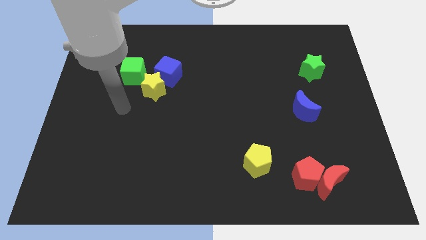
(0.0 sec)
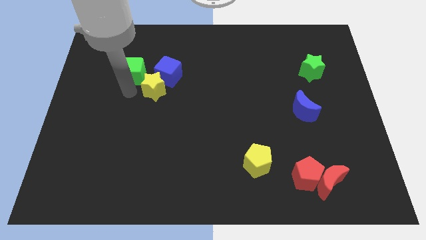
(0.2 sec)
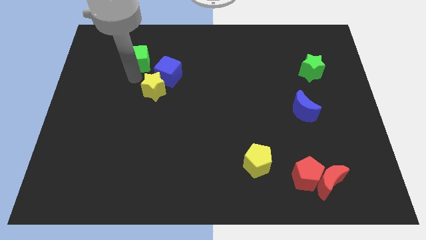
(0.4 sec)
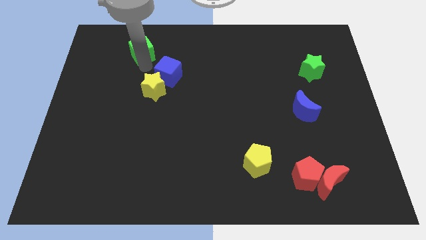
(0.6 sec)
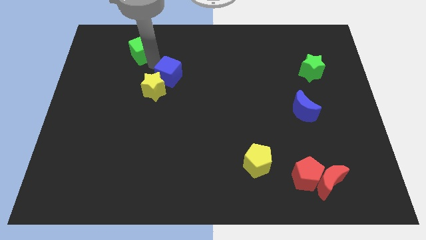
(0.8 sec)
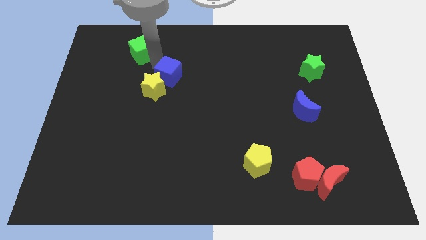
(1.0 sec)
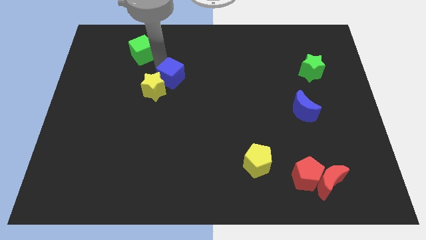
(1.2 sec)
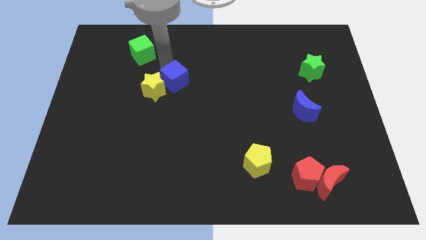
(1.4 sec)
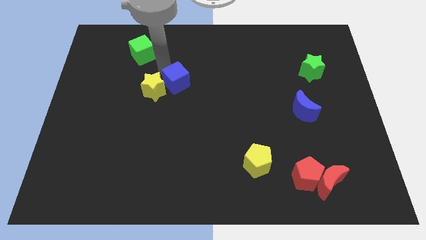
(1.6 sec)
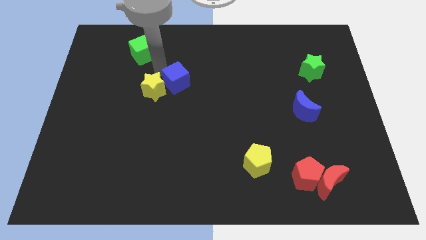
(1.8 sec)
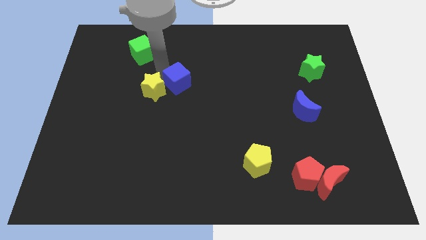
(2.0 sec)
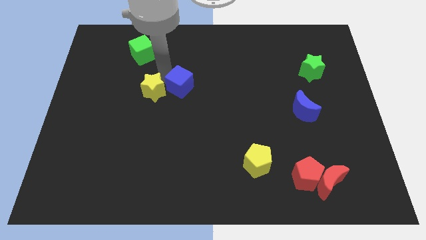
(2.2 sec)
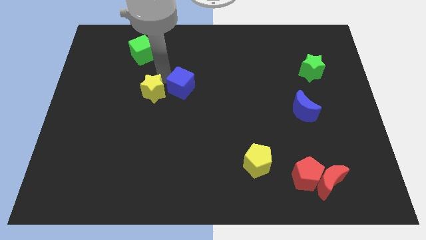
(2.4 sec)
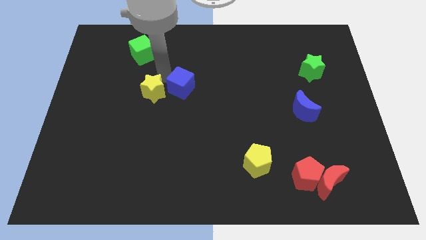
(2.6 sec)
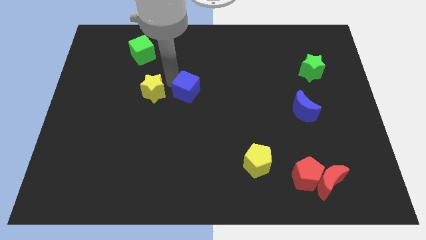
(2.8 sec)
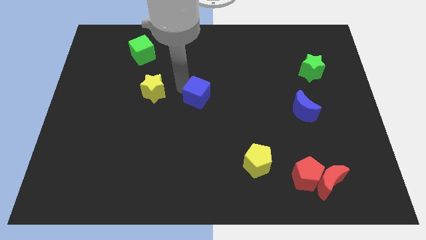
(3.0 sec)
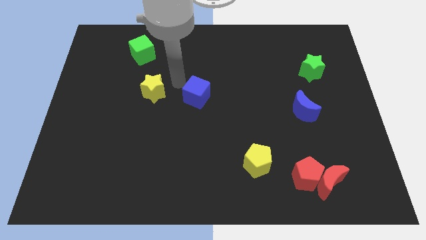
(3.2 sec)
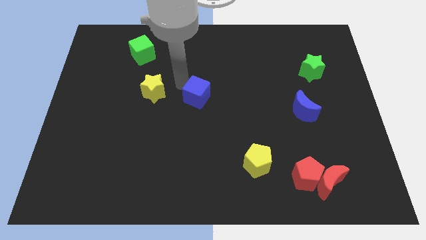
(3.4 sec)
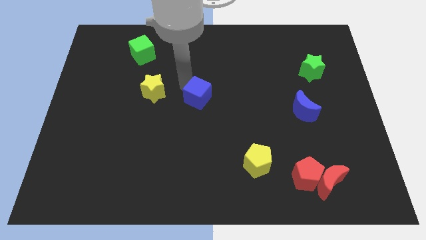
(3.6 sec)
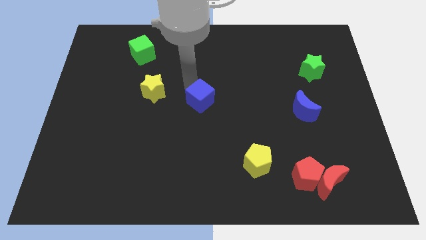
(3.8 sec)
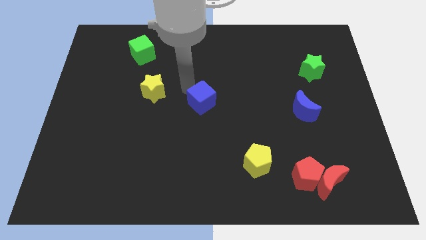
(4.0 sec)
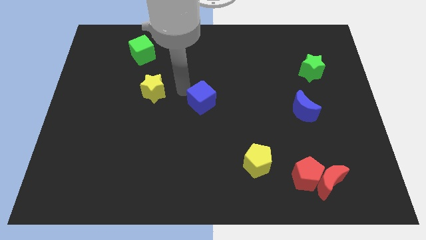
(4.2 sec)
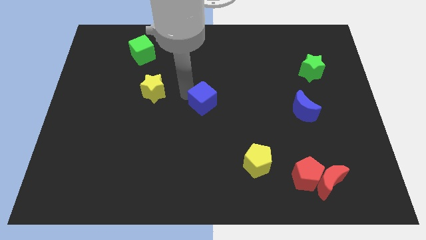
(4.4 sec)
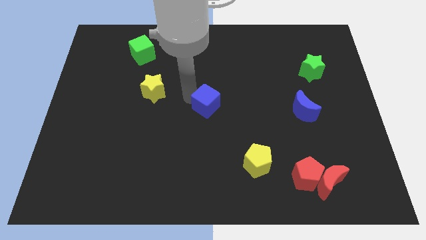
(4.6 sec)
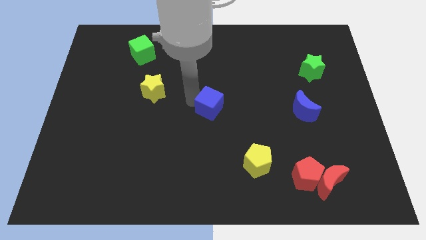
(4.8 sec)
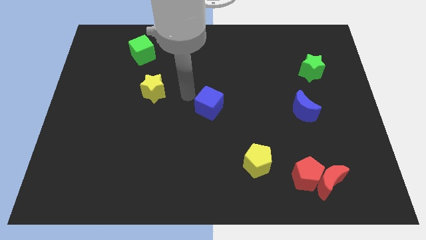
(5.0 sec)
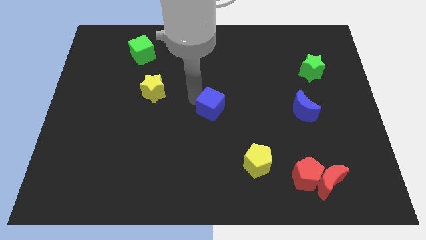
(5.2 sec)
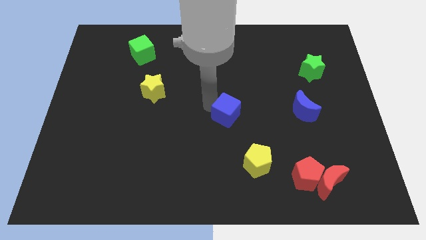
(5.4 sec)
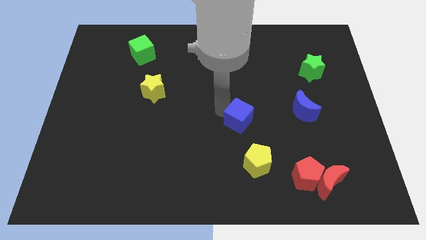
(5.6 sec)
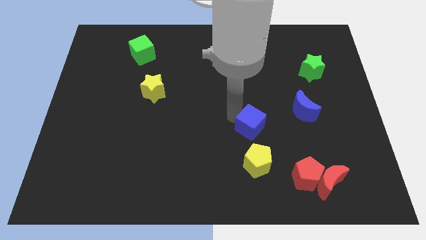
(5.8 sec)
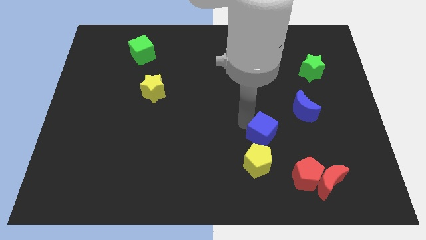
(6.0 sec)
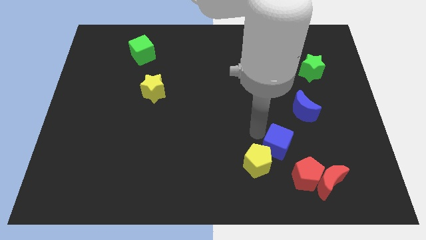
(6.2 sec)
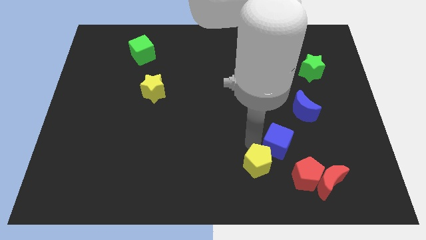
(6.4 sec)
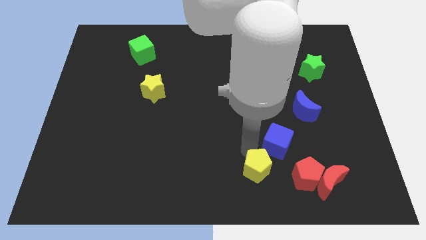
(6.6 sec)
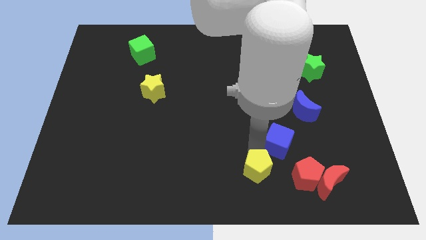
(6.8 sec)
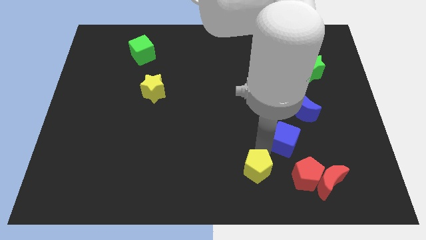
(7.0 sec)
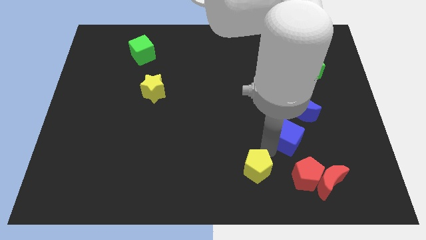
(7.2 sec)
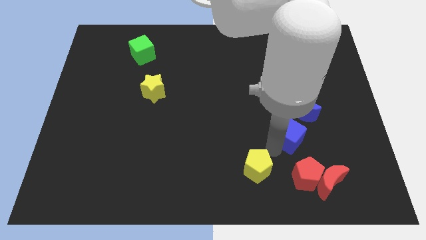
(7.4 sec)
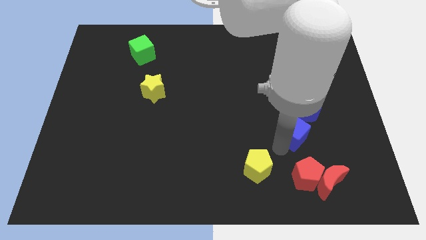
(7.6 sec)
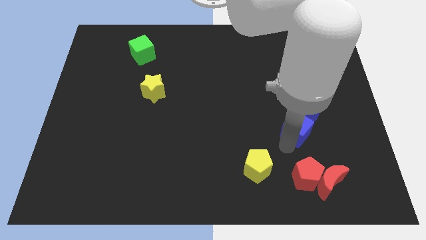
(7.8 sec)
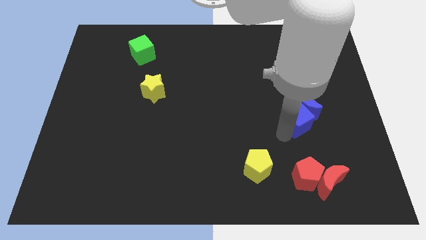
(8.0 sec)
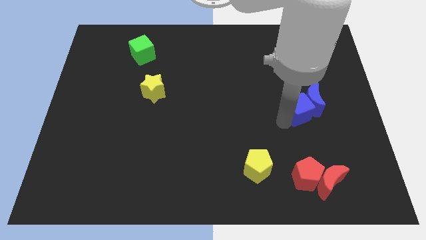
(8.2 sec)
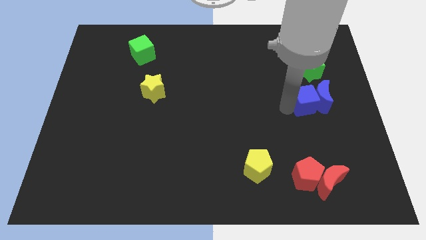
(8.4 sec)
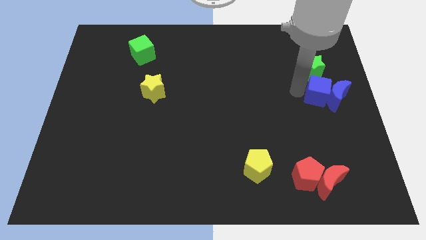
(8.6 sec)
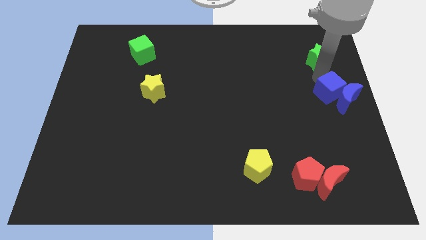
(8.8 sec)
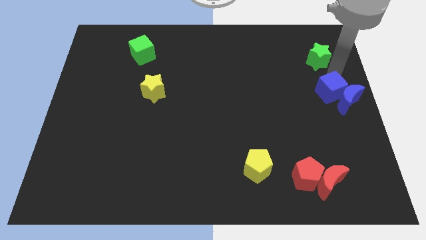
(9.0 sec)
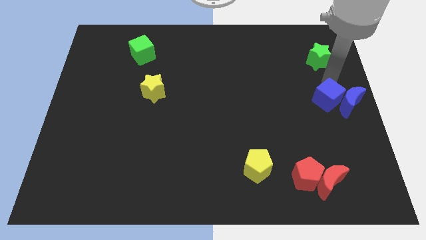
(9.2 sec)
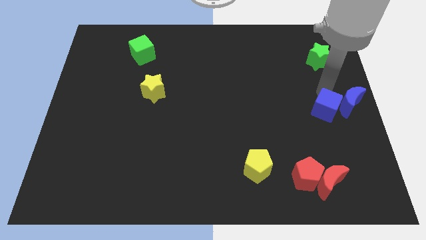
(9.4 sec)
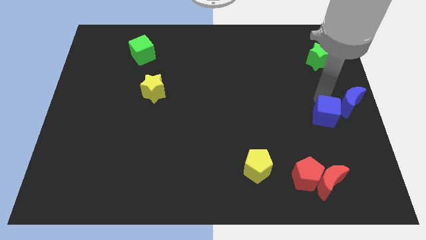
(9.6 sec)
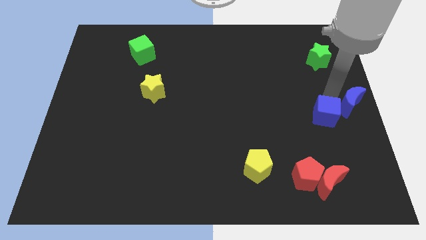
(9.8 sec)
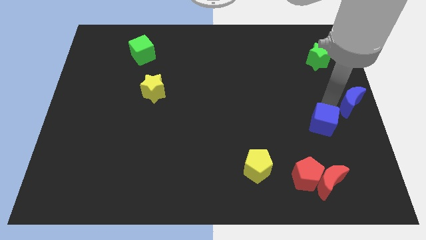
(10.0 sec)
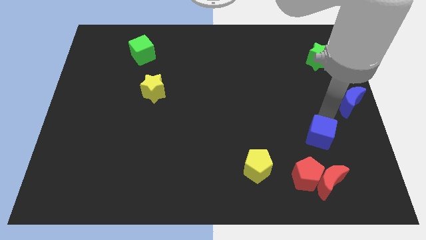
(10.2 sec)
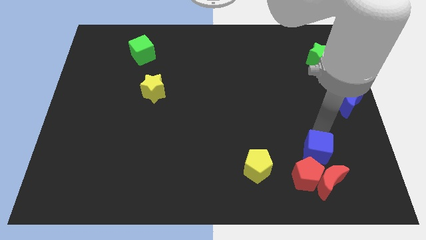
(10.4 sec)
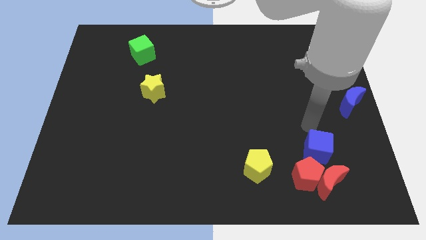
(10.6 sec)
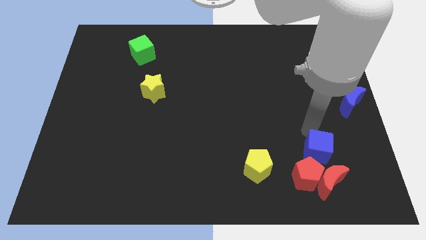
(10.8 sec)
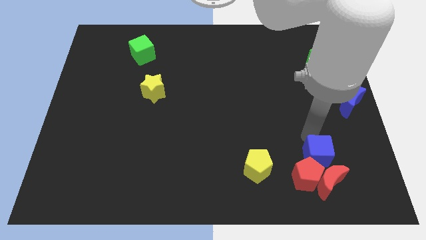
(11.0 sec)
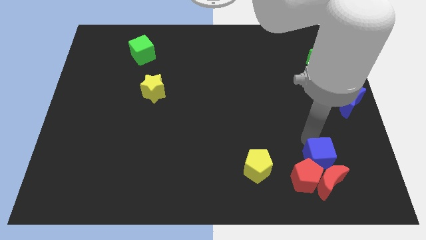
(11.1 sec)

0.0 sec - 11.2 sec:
put the blue cube to the red moon

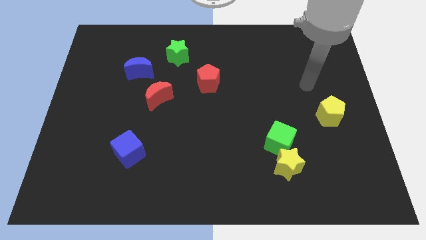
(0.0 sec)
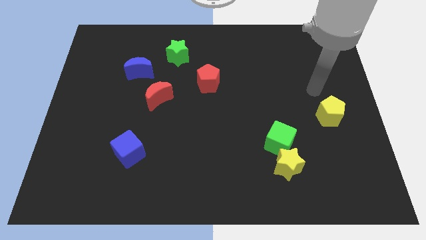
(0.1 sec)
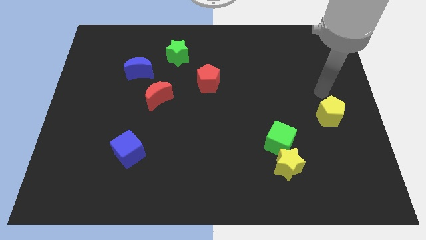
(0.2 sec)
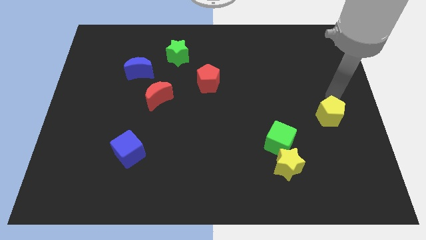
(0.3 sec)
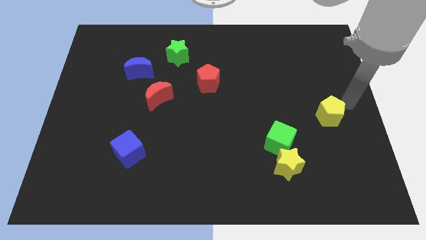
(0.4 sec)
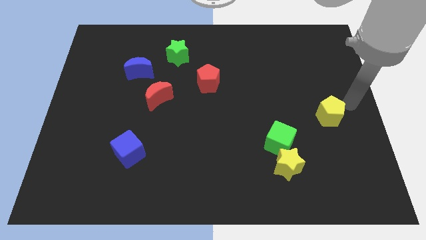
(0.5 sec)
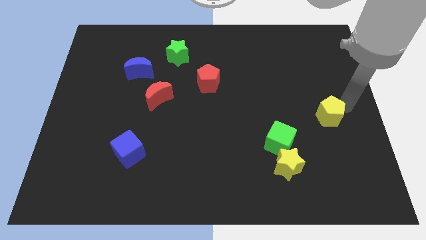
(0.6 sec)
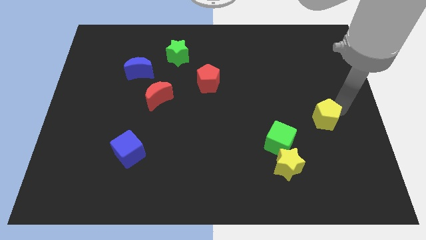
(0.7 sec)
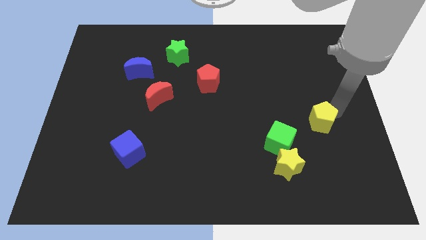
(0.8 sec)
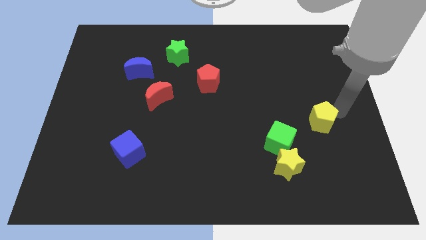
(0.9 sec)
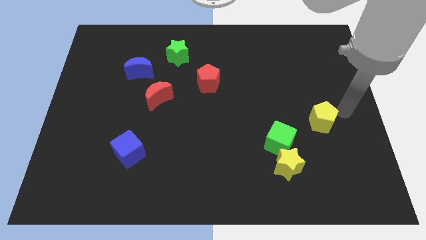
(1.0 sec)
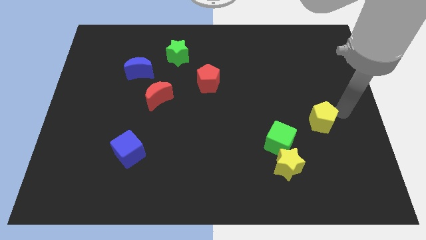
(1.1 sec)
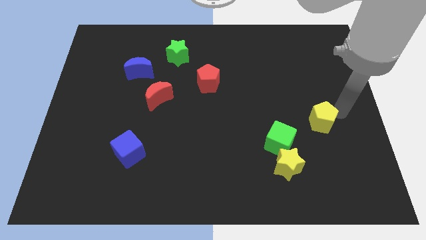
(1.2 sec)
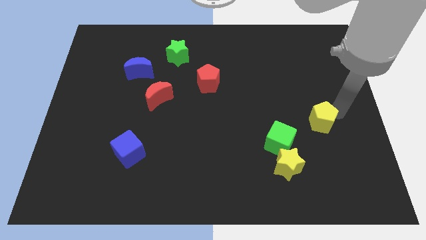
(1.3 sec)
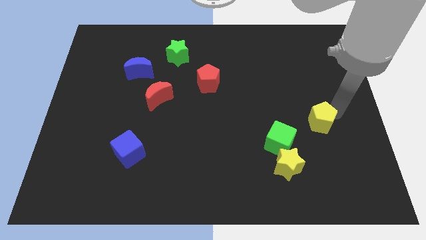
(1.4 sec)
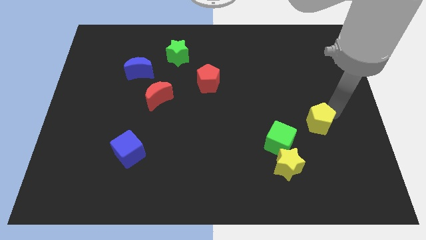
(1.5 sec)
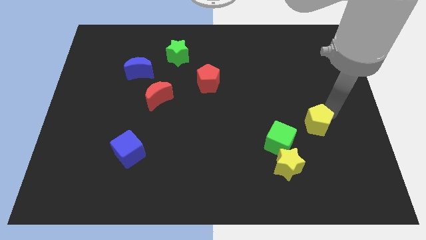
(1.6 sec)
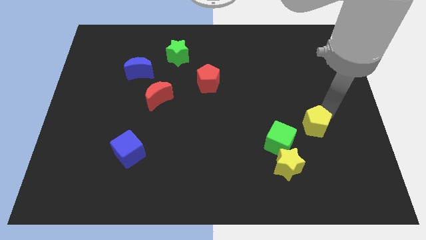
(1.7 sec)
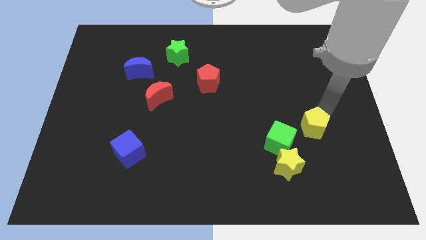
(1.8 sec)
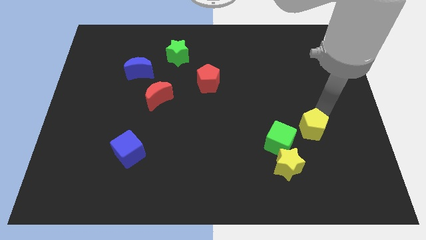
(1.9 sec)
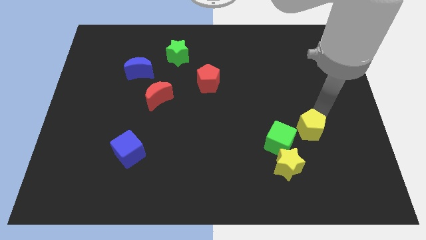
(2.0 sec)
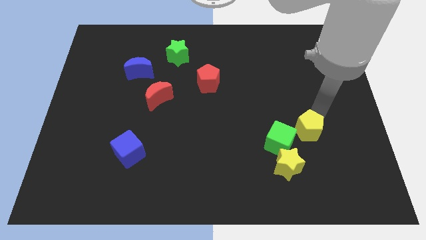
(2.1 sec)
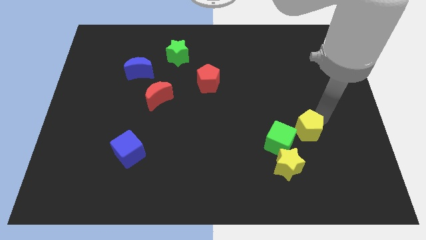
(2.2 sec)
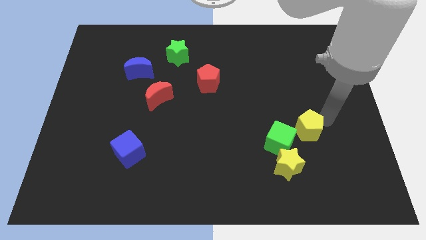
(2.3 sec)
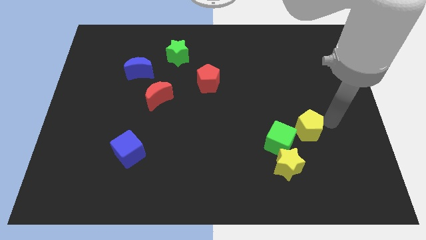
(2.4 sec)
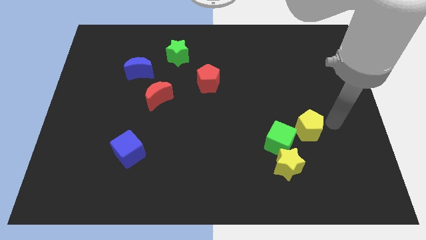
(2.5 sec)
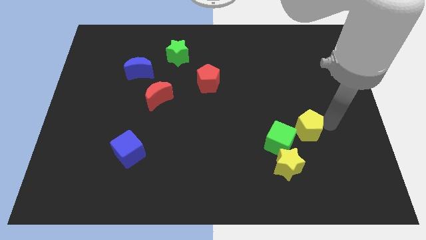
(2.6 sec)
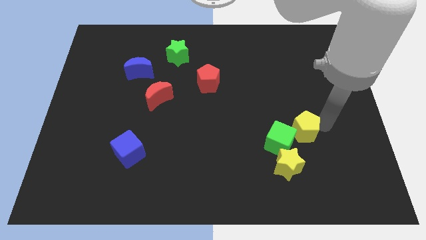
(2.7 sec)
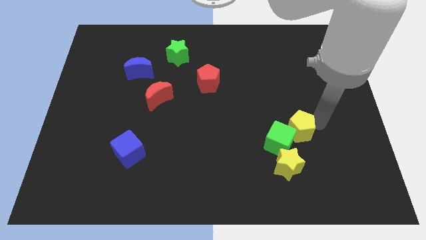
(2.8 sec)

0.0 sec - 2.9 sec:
put the yellow pentagon towards the green cube
